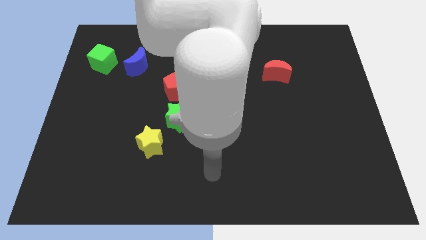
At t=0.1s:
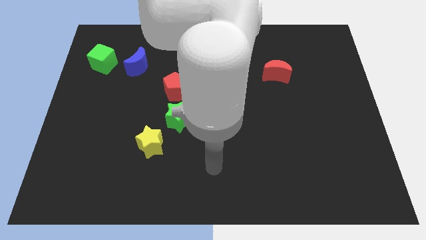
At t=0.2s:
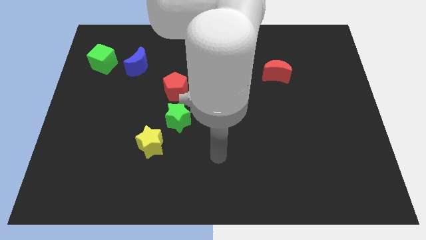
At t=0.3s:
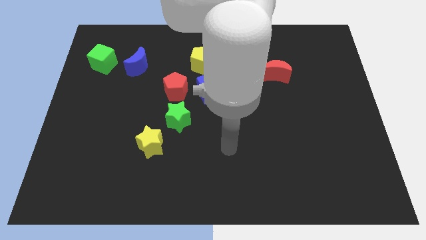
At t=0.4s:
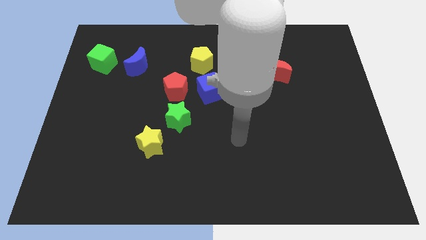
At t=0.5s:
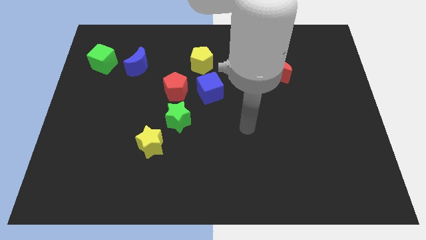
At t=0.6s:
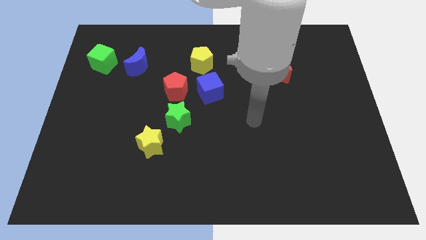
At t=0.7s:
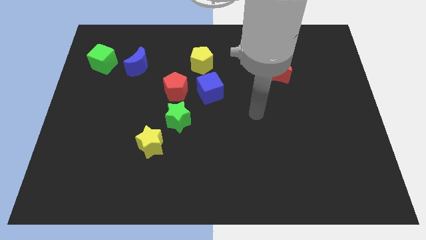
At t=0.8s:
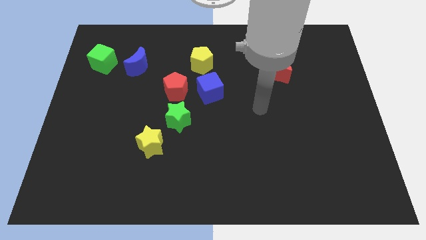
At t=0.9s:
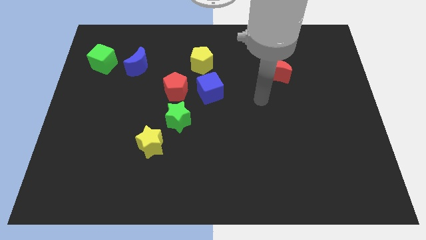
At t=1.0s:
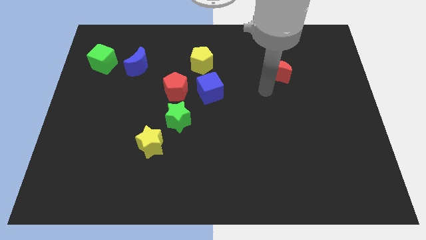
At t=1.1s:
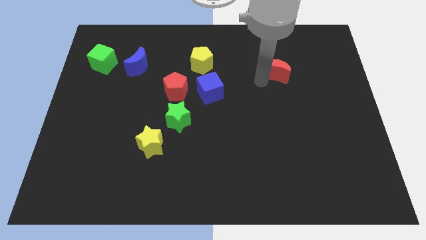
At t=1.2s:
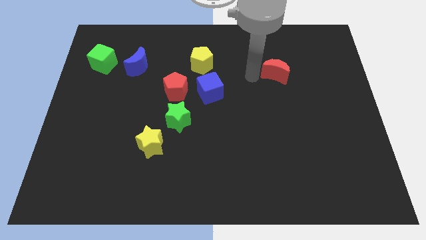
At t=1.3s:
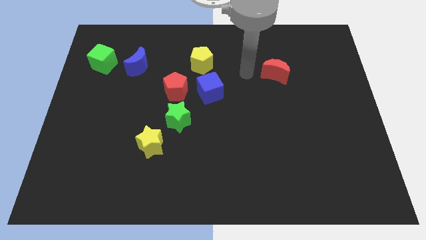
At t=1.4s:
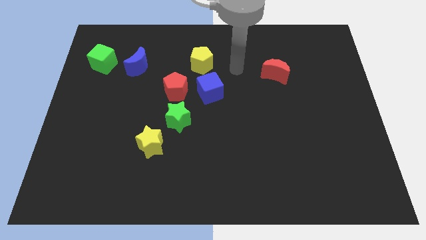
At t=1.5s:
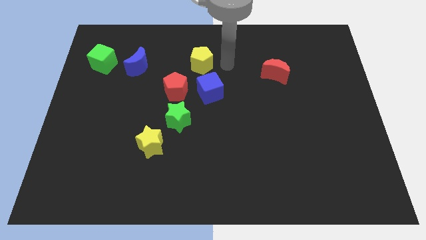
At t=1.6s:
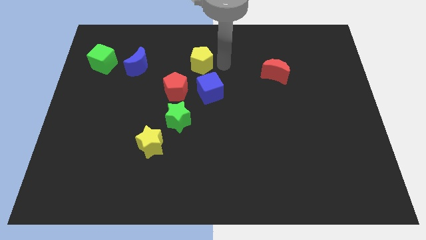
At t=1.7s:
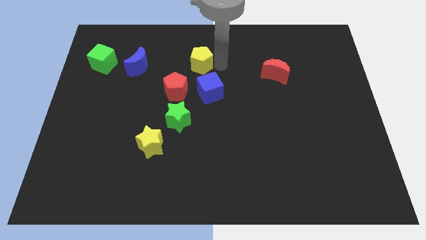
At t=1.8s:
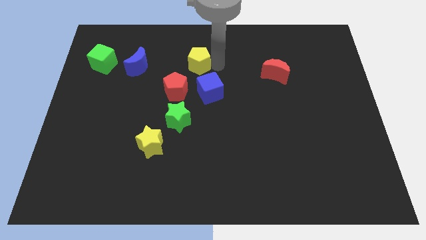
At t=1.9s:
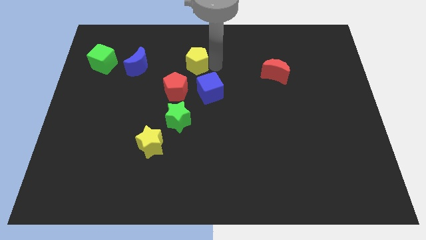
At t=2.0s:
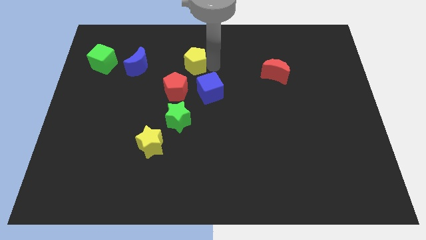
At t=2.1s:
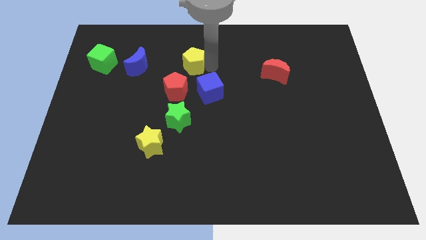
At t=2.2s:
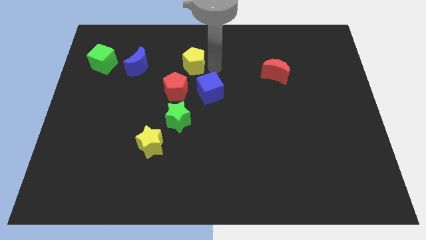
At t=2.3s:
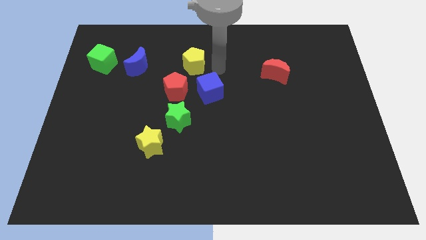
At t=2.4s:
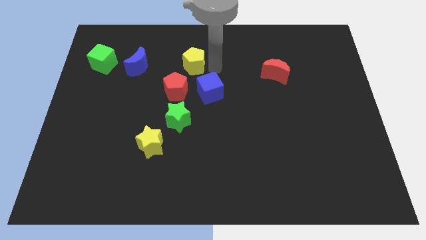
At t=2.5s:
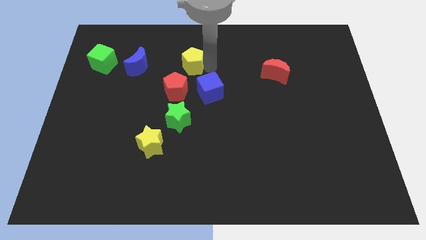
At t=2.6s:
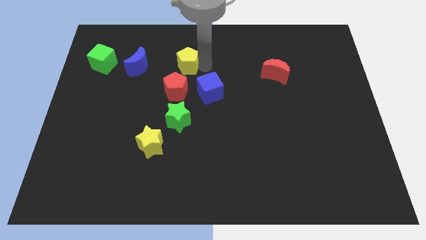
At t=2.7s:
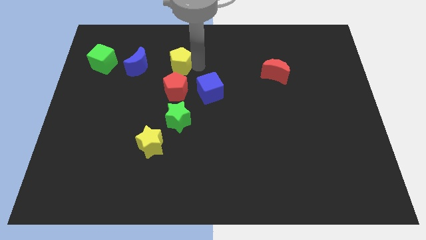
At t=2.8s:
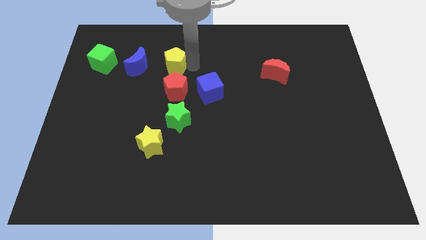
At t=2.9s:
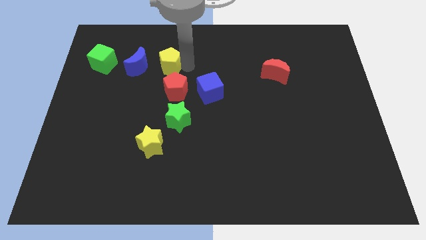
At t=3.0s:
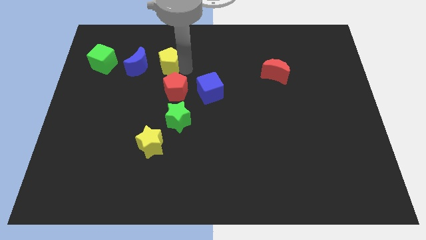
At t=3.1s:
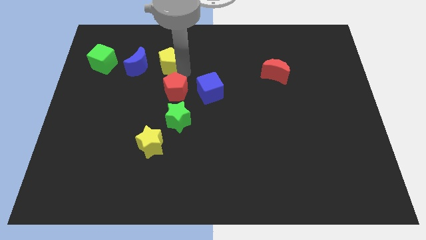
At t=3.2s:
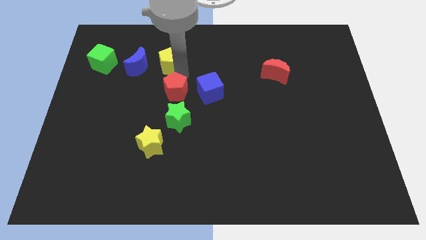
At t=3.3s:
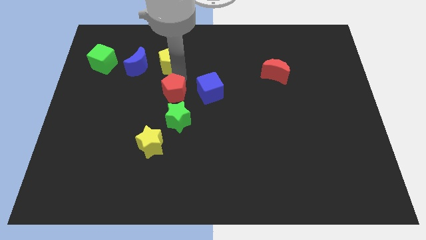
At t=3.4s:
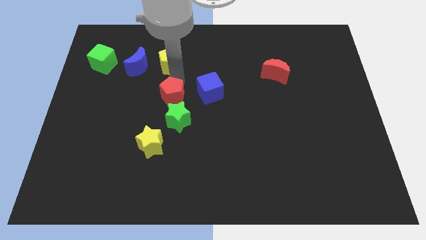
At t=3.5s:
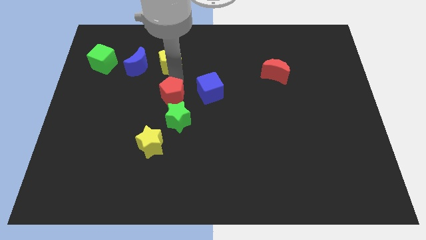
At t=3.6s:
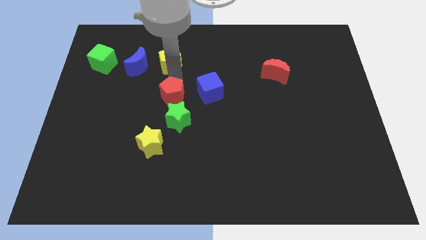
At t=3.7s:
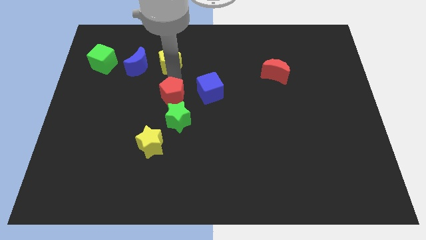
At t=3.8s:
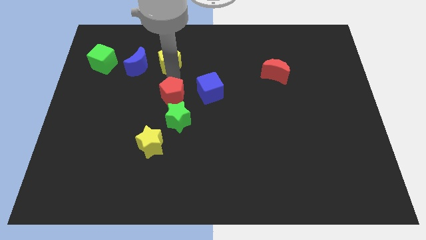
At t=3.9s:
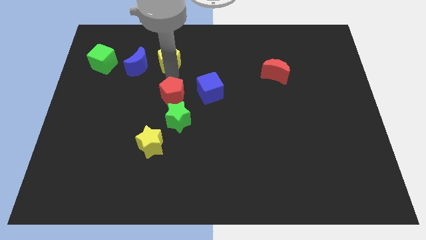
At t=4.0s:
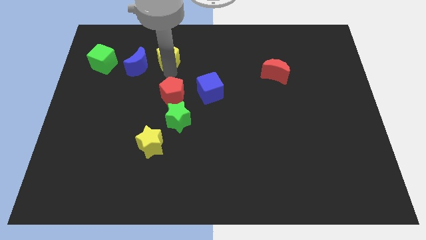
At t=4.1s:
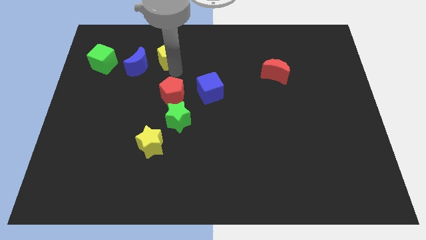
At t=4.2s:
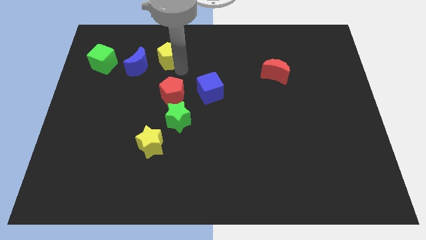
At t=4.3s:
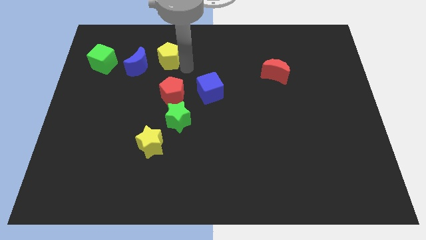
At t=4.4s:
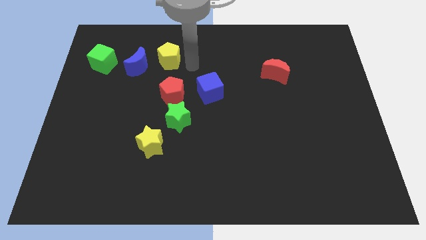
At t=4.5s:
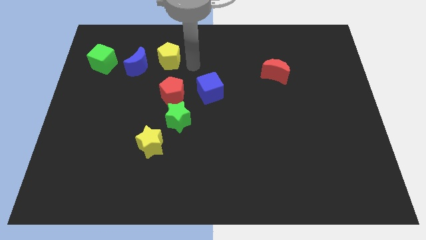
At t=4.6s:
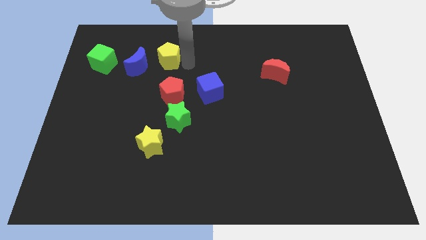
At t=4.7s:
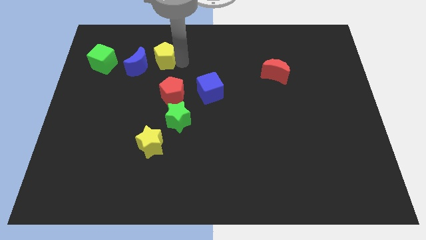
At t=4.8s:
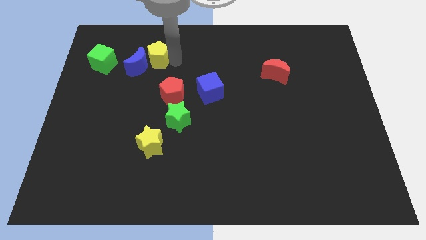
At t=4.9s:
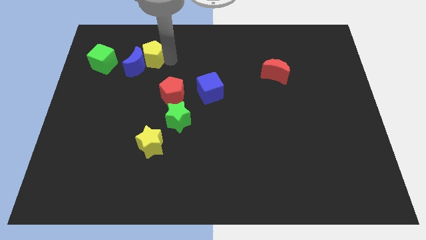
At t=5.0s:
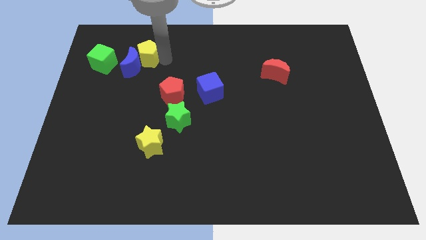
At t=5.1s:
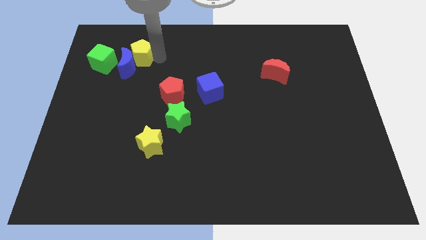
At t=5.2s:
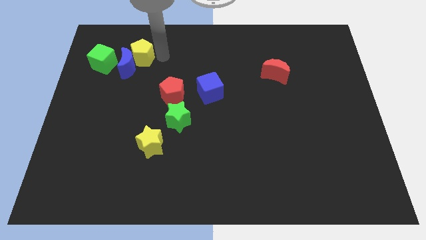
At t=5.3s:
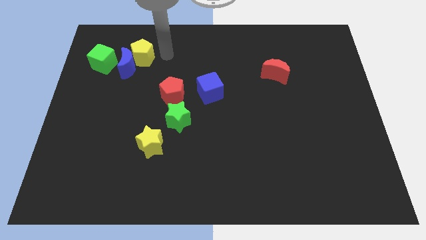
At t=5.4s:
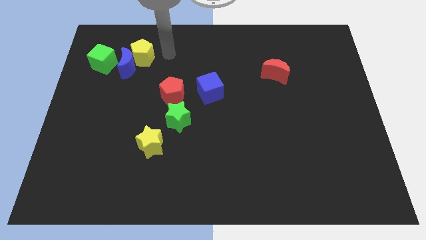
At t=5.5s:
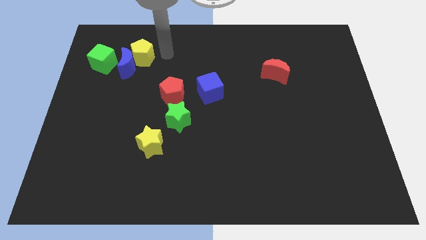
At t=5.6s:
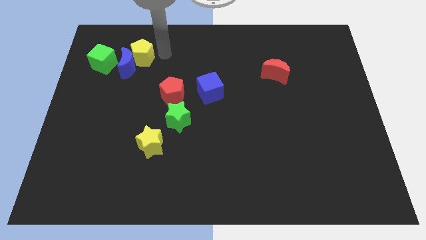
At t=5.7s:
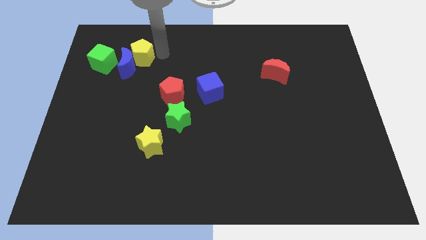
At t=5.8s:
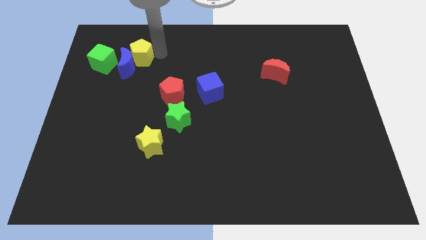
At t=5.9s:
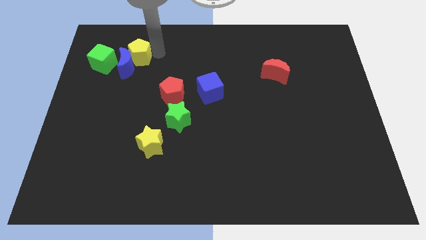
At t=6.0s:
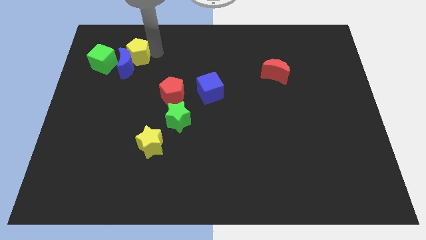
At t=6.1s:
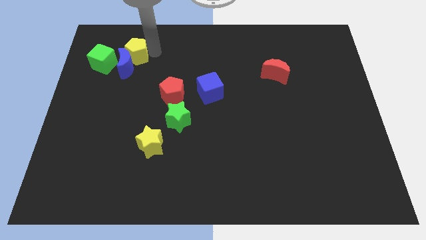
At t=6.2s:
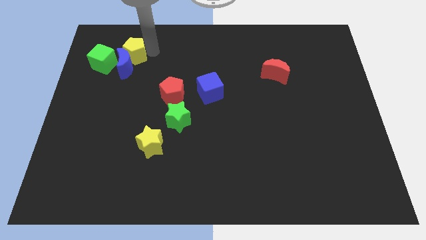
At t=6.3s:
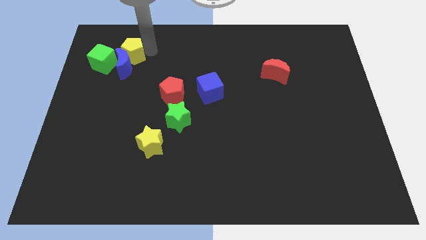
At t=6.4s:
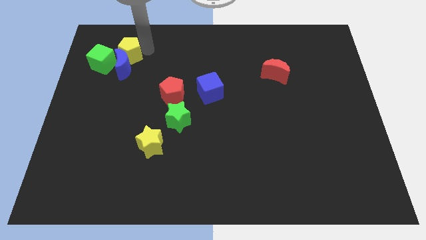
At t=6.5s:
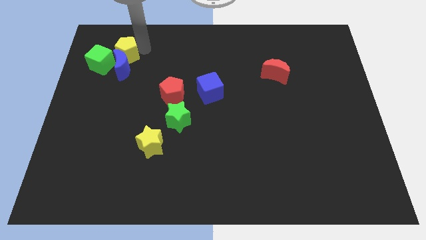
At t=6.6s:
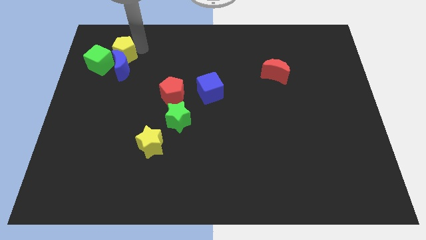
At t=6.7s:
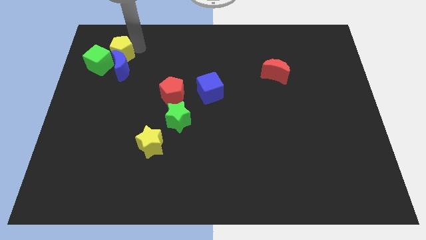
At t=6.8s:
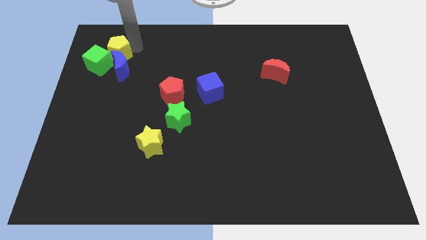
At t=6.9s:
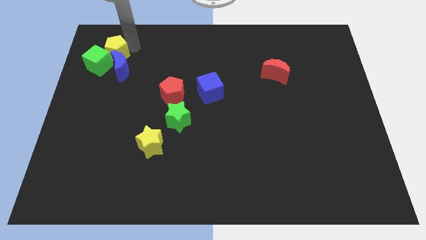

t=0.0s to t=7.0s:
push the yellow pentagon close to the green cube
